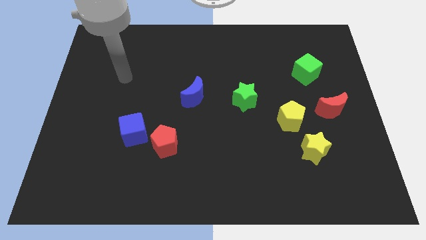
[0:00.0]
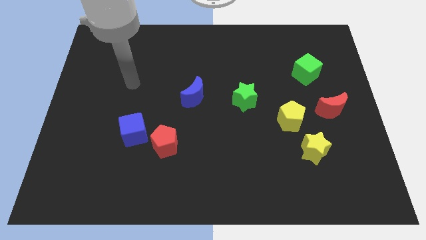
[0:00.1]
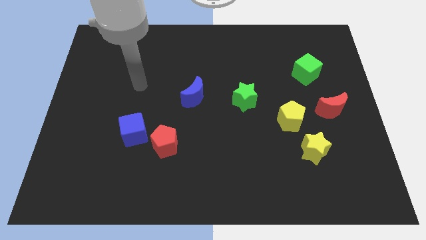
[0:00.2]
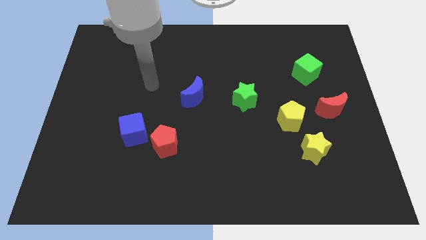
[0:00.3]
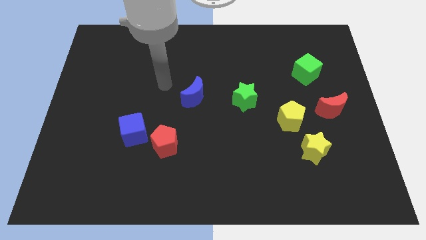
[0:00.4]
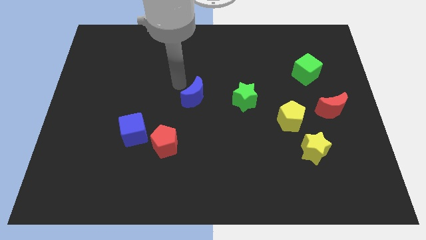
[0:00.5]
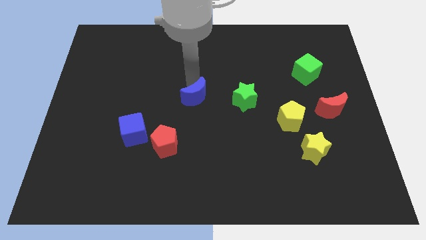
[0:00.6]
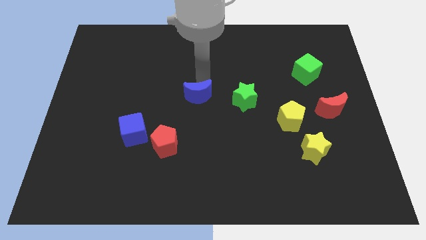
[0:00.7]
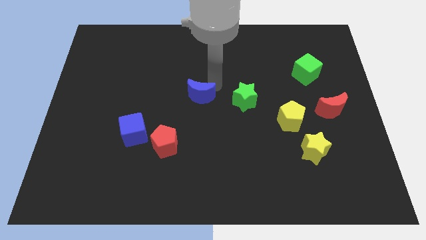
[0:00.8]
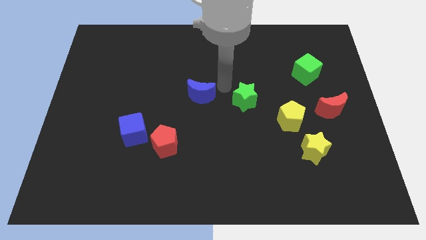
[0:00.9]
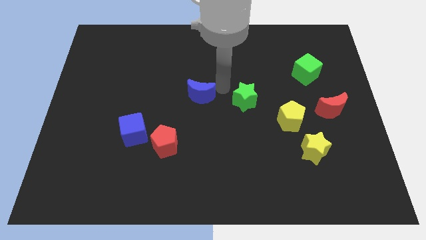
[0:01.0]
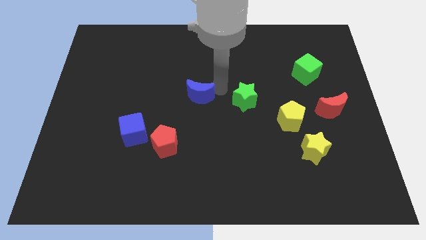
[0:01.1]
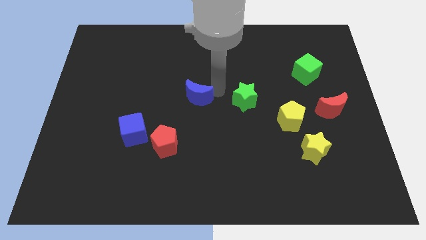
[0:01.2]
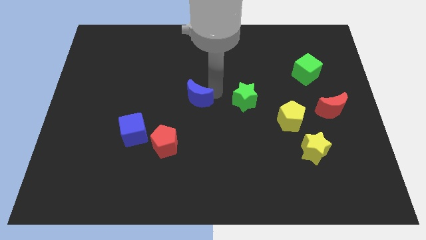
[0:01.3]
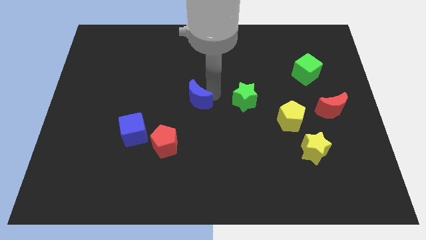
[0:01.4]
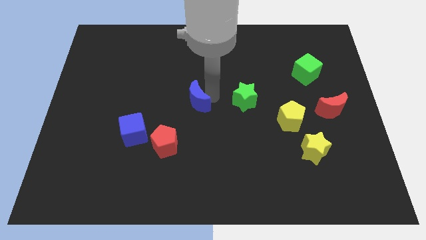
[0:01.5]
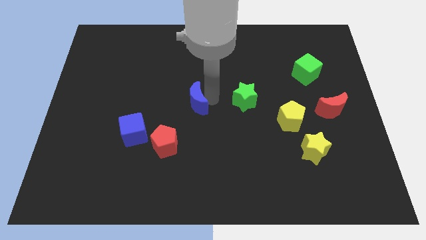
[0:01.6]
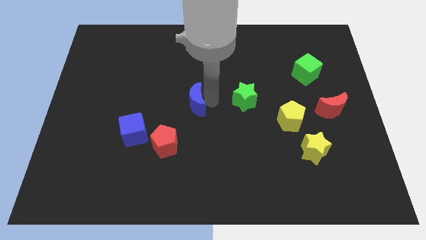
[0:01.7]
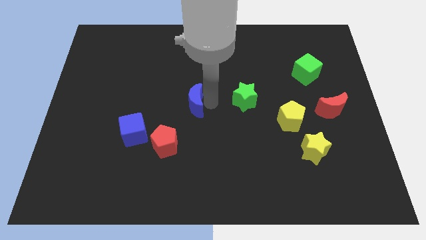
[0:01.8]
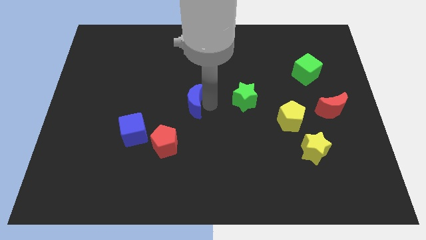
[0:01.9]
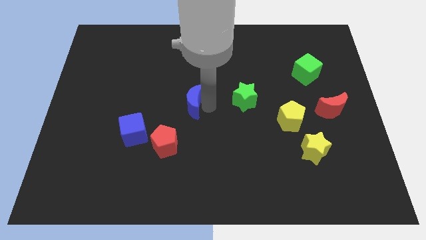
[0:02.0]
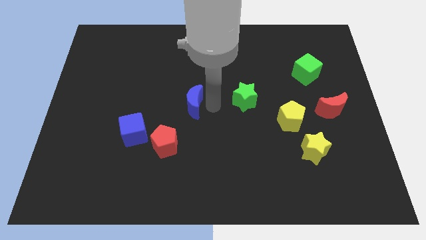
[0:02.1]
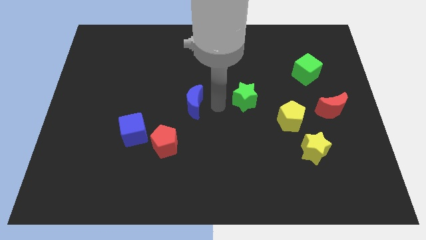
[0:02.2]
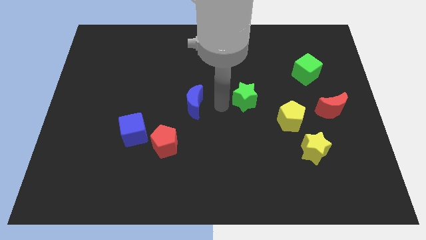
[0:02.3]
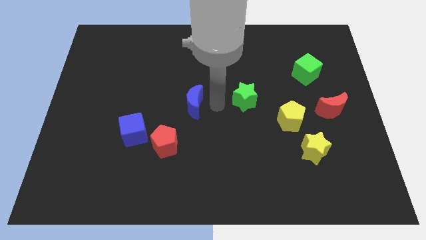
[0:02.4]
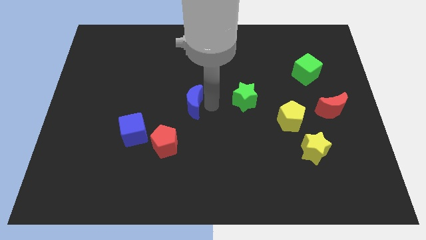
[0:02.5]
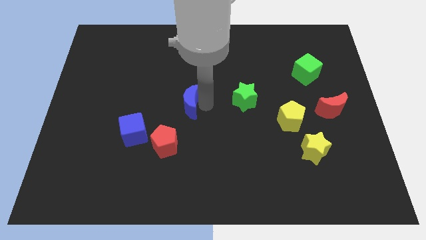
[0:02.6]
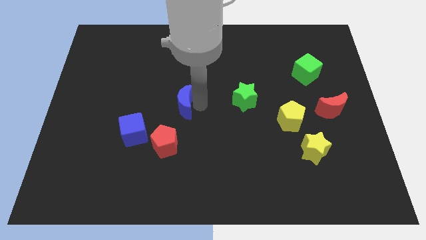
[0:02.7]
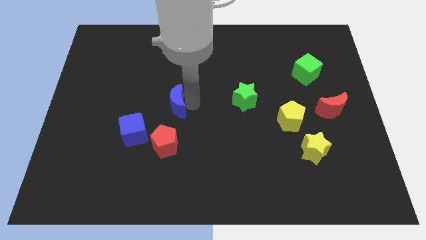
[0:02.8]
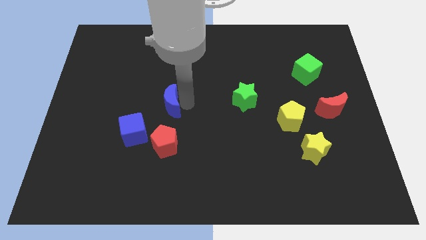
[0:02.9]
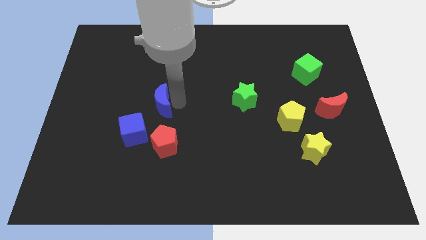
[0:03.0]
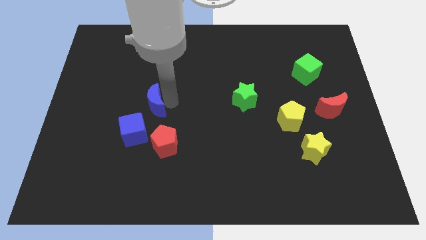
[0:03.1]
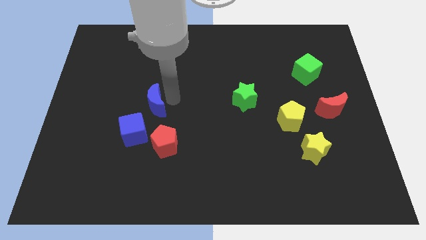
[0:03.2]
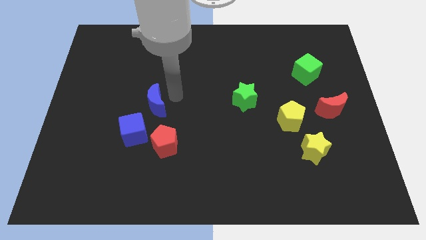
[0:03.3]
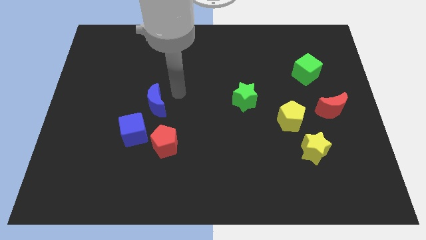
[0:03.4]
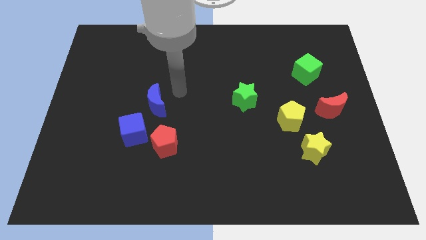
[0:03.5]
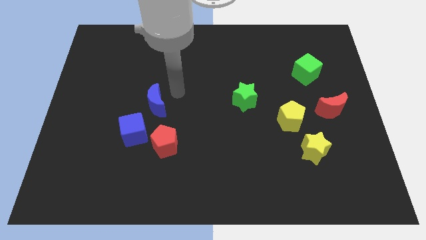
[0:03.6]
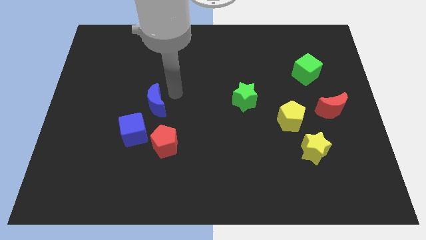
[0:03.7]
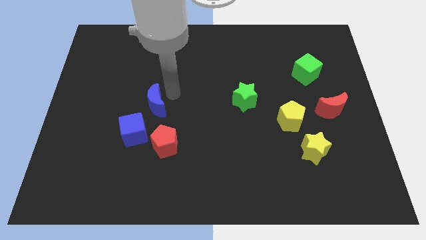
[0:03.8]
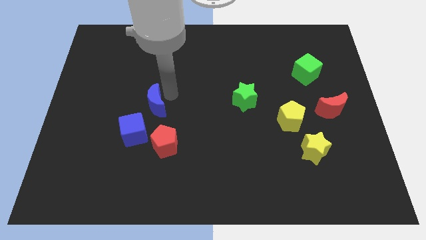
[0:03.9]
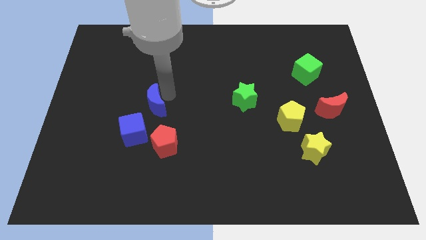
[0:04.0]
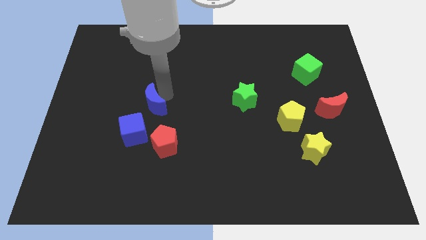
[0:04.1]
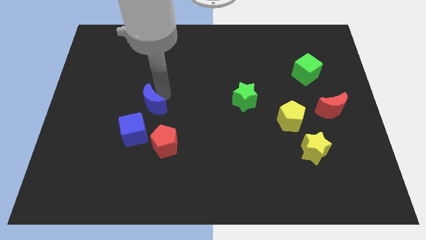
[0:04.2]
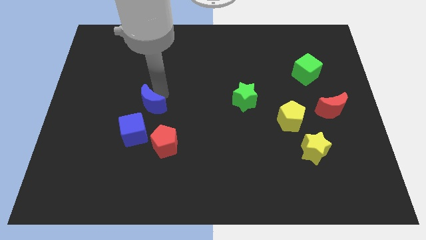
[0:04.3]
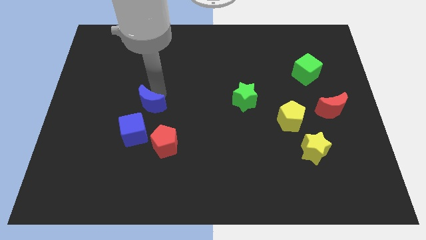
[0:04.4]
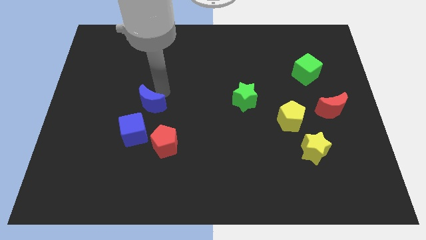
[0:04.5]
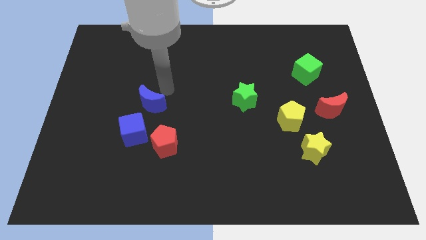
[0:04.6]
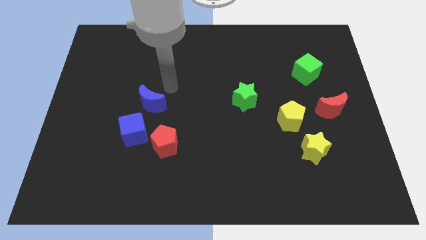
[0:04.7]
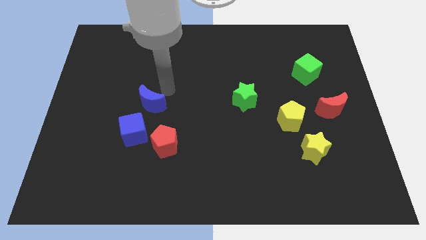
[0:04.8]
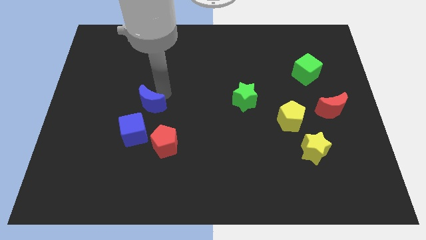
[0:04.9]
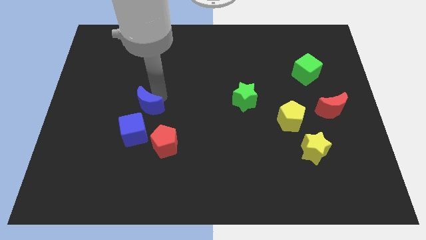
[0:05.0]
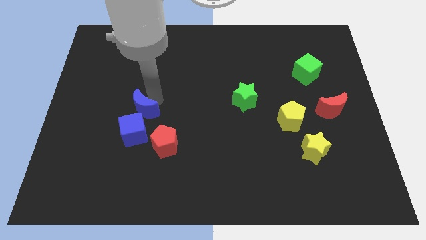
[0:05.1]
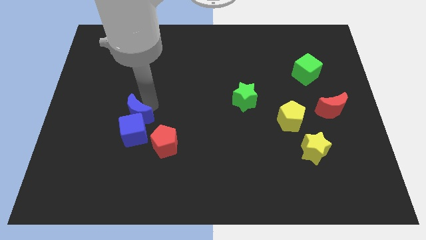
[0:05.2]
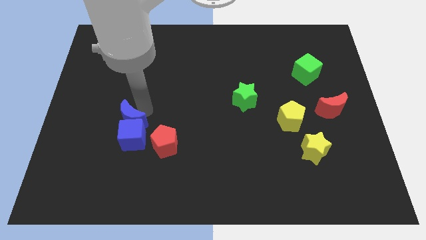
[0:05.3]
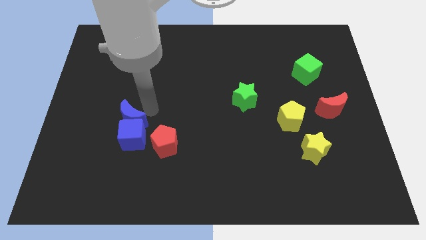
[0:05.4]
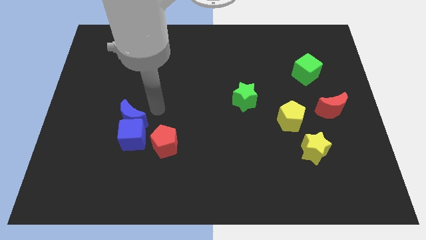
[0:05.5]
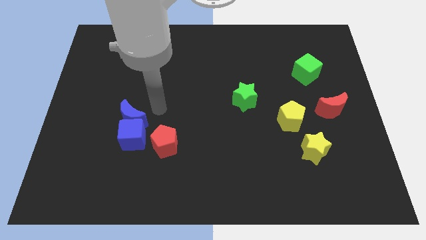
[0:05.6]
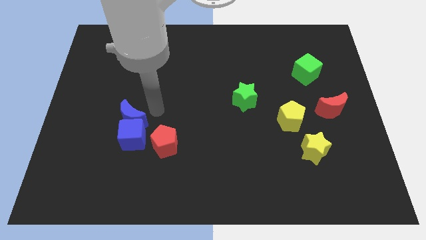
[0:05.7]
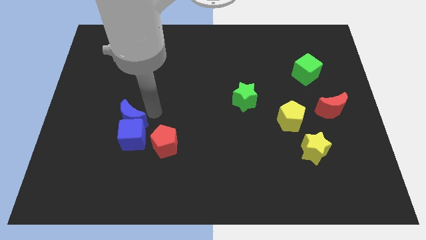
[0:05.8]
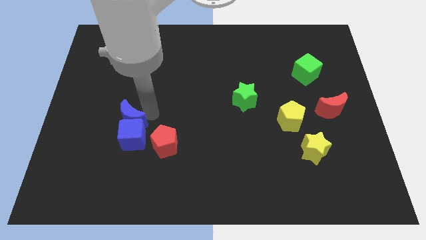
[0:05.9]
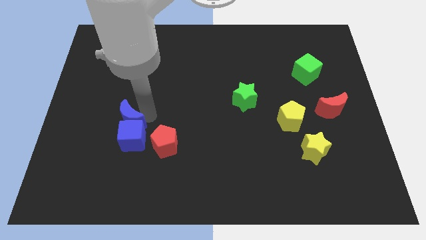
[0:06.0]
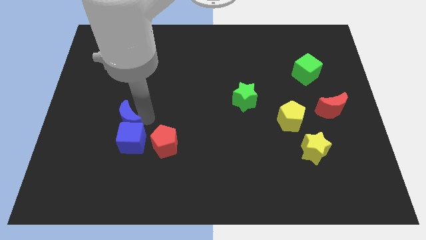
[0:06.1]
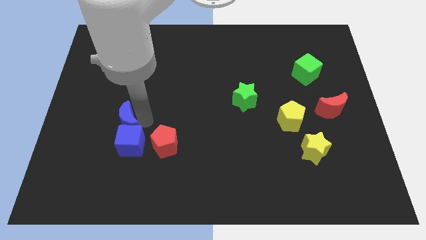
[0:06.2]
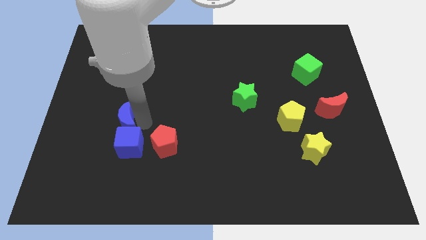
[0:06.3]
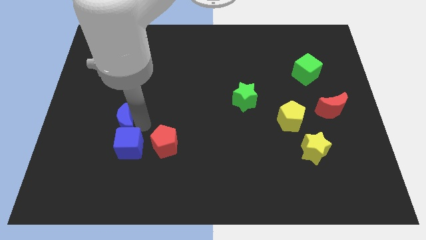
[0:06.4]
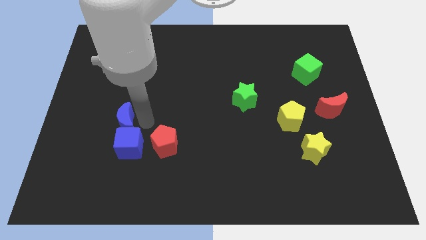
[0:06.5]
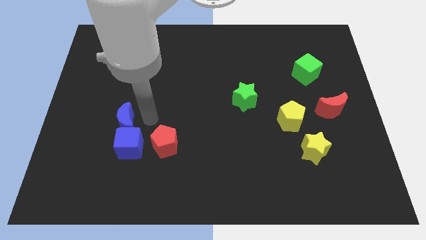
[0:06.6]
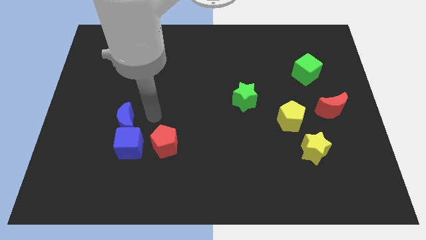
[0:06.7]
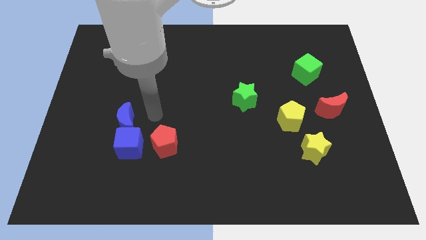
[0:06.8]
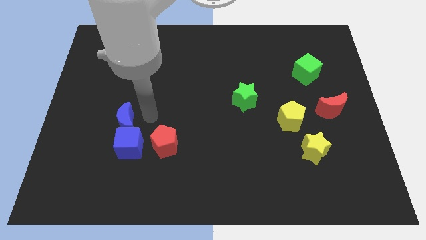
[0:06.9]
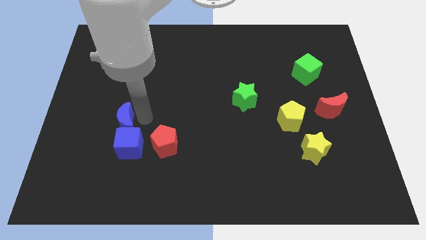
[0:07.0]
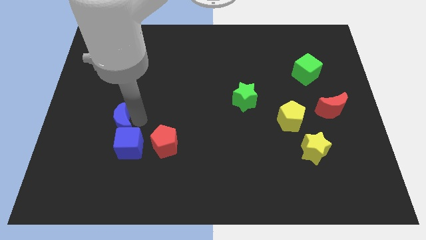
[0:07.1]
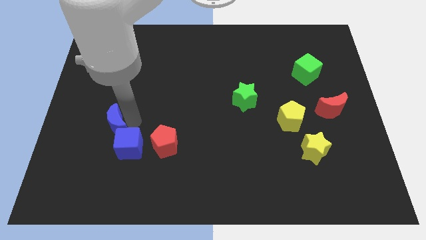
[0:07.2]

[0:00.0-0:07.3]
put the blue moon just left of the red pentagon

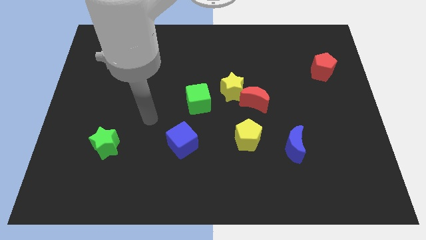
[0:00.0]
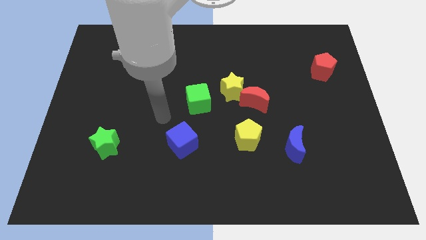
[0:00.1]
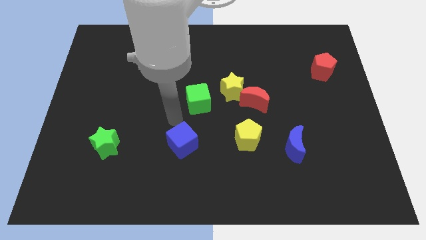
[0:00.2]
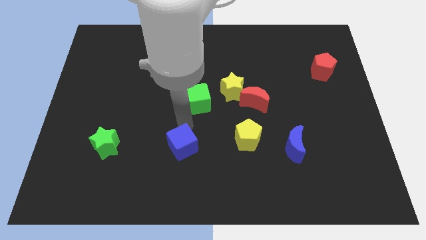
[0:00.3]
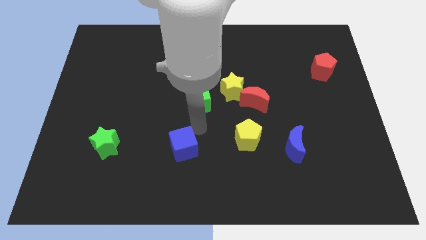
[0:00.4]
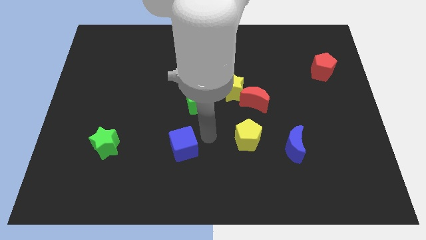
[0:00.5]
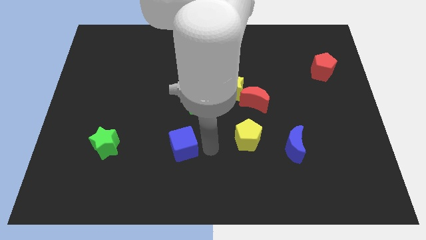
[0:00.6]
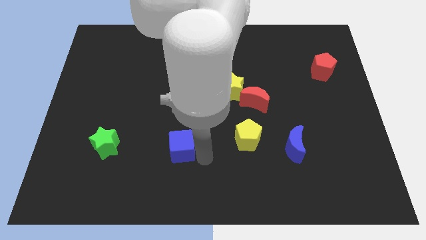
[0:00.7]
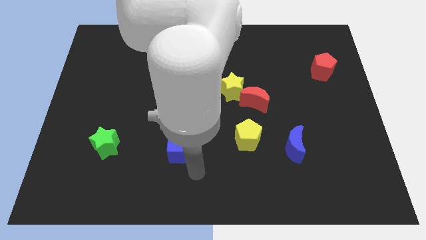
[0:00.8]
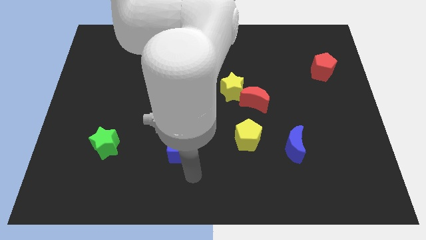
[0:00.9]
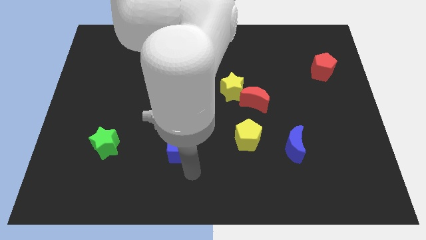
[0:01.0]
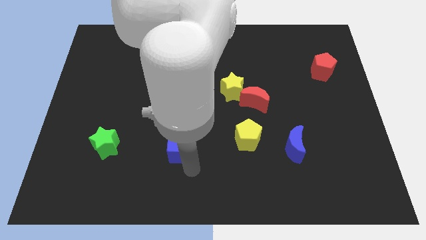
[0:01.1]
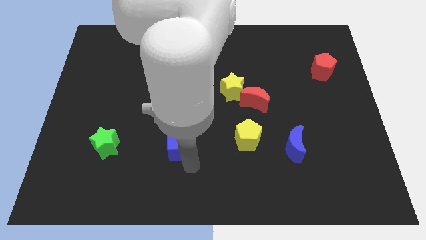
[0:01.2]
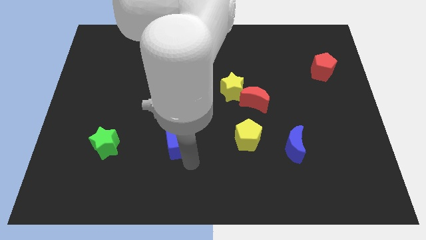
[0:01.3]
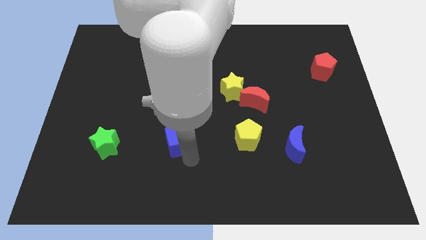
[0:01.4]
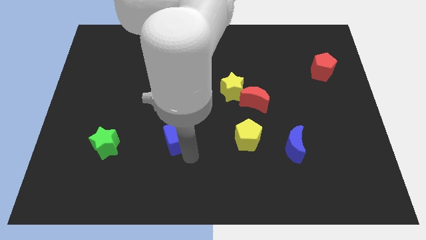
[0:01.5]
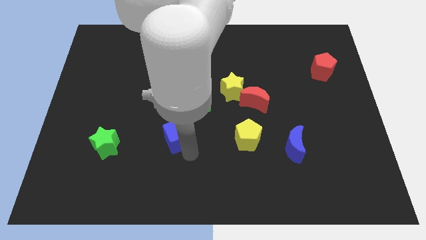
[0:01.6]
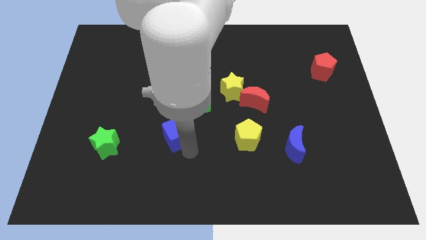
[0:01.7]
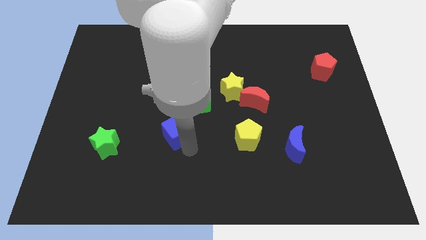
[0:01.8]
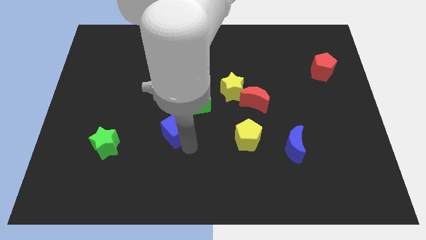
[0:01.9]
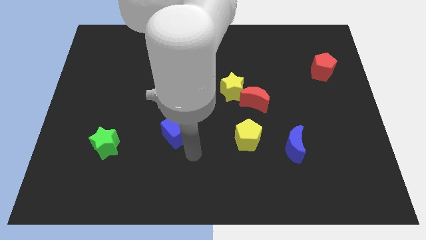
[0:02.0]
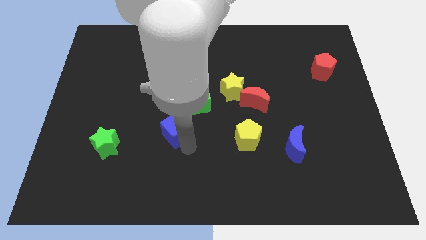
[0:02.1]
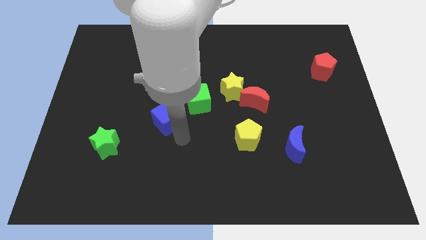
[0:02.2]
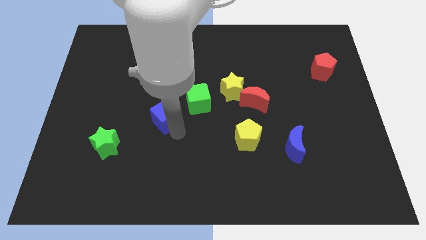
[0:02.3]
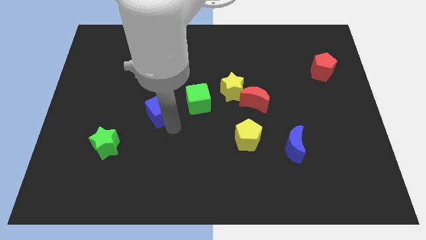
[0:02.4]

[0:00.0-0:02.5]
push the blue cube left of the green cube
